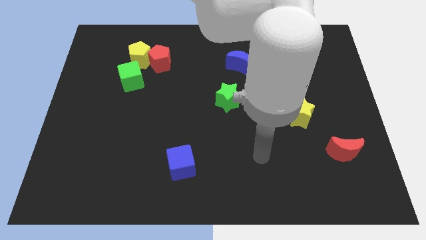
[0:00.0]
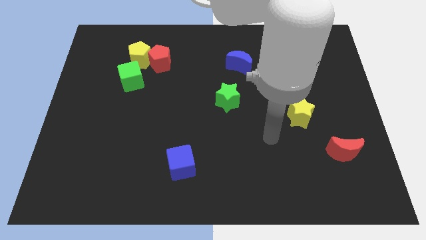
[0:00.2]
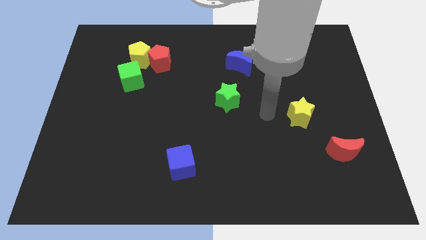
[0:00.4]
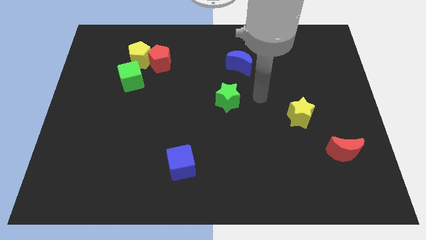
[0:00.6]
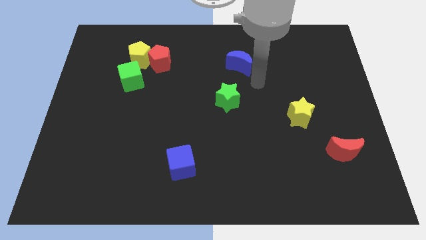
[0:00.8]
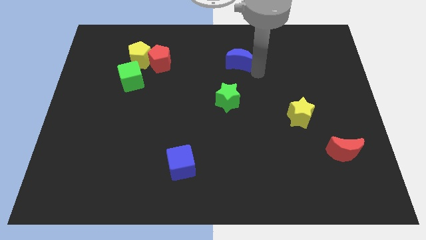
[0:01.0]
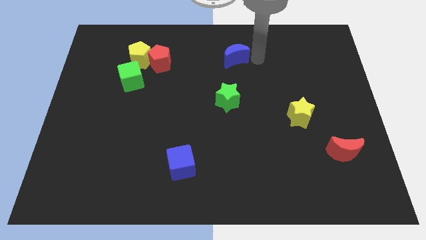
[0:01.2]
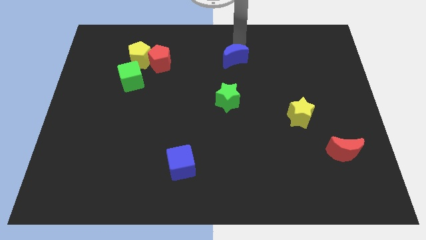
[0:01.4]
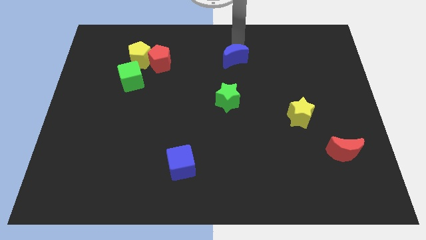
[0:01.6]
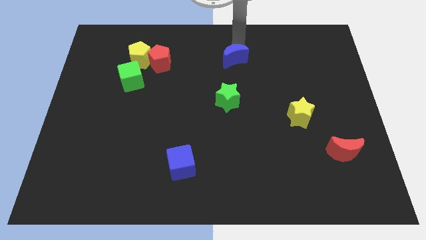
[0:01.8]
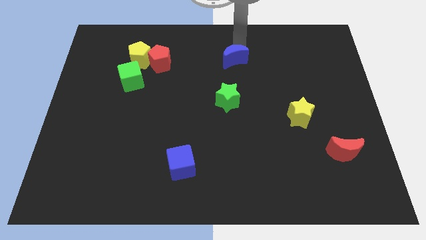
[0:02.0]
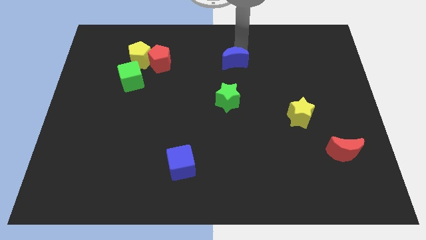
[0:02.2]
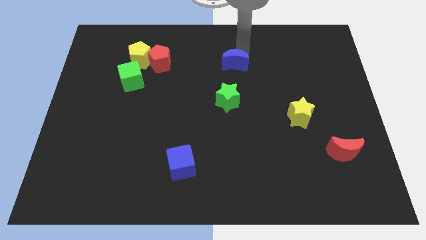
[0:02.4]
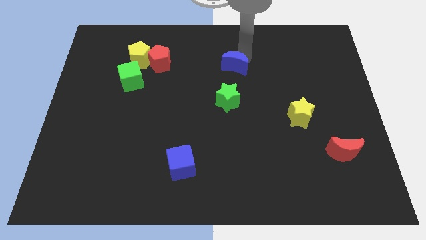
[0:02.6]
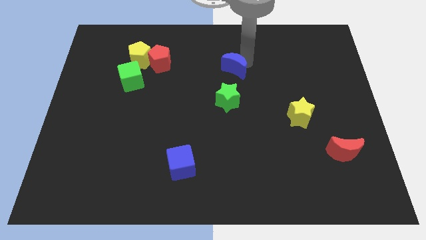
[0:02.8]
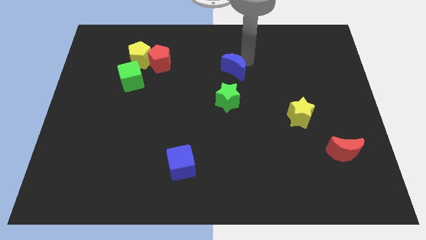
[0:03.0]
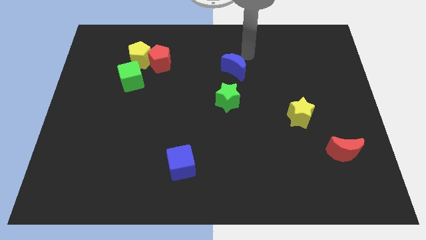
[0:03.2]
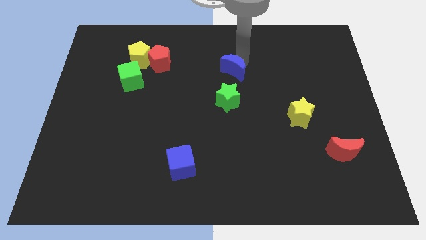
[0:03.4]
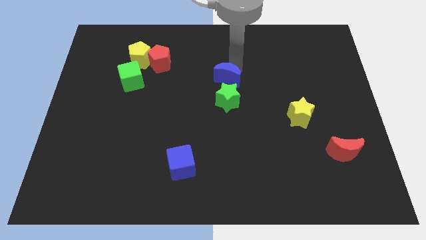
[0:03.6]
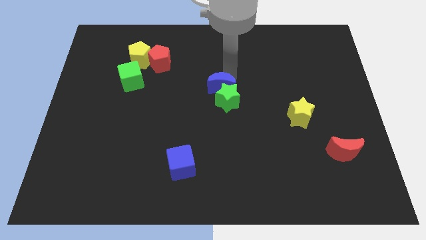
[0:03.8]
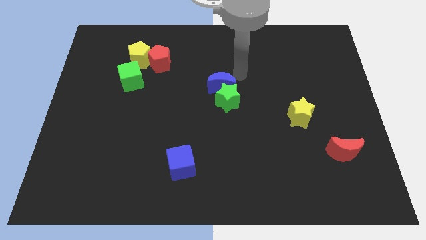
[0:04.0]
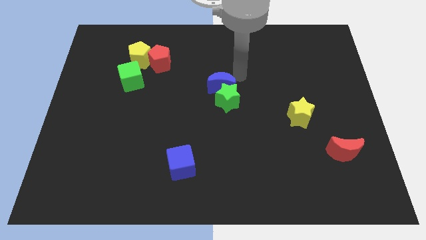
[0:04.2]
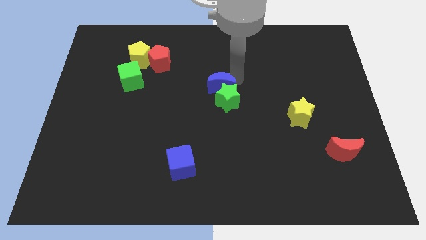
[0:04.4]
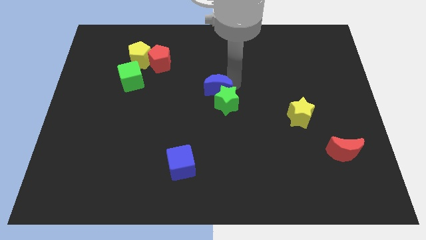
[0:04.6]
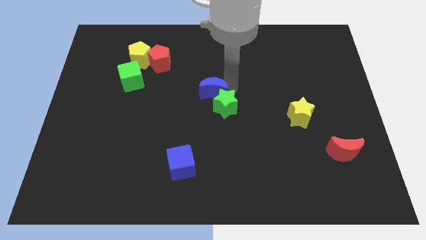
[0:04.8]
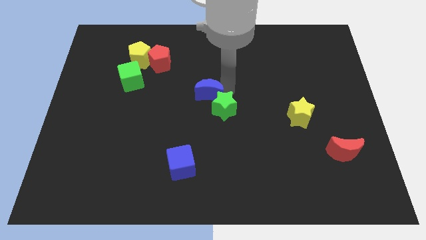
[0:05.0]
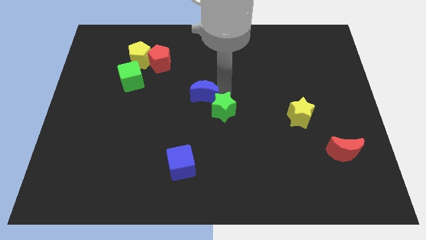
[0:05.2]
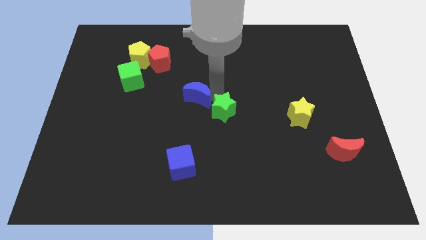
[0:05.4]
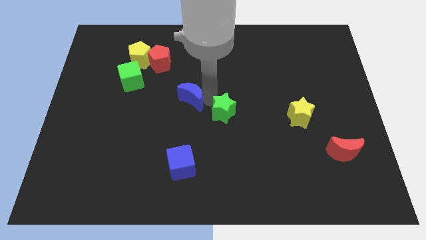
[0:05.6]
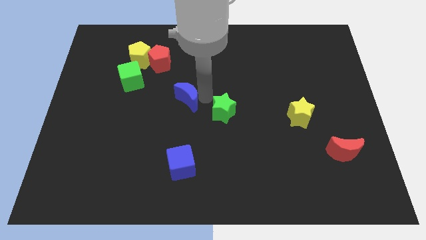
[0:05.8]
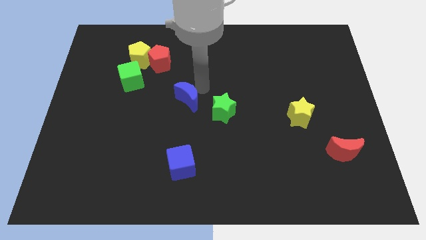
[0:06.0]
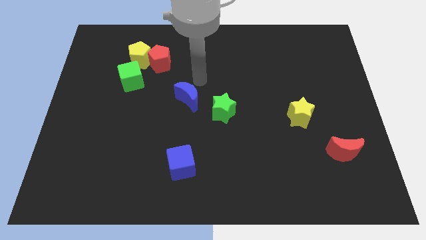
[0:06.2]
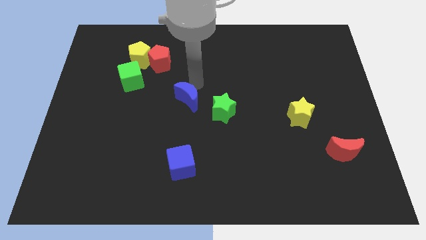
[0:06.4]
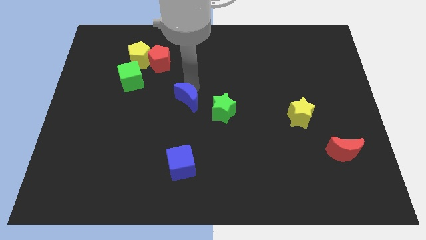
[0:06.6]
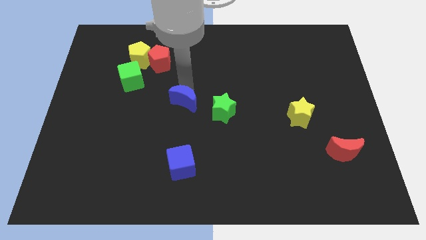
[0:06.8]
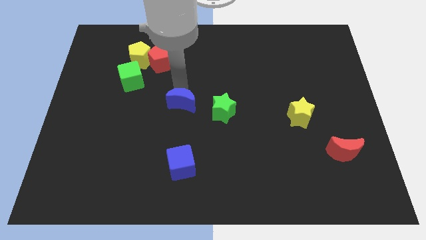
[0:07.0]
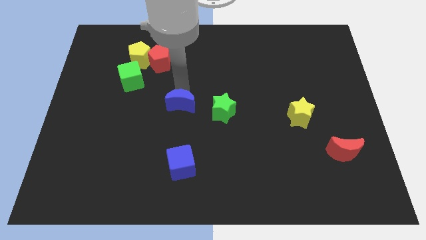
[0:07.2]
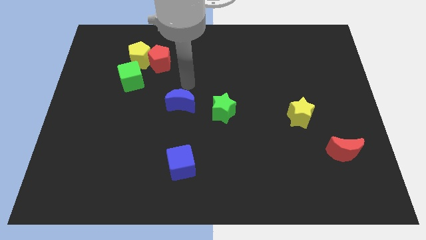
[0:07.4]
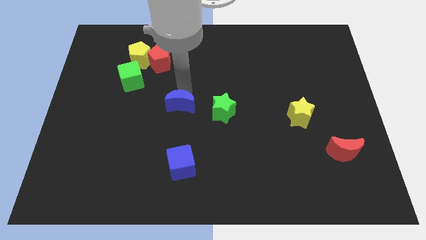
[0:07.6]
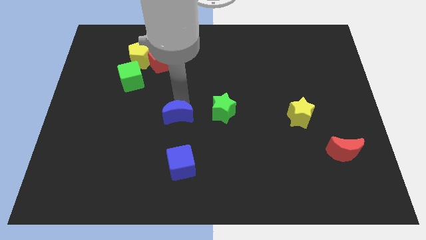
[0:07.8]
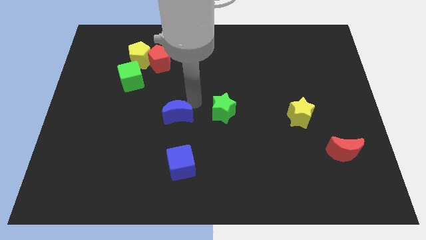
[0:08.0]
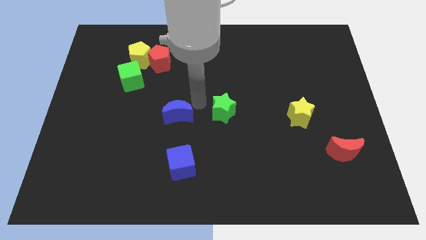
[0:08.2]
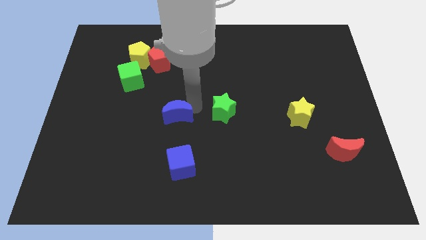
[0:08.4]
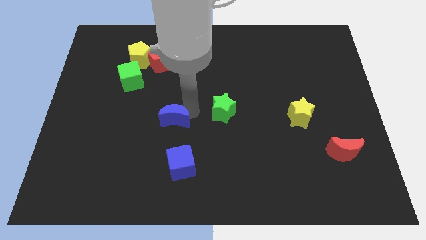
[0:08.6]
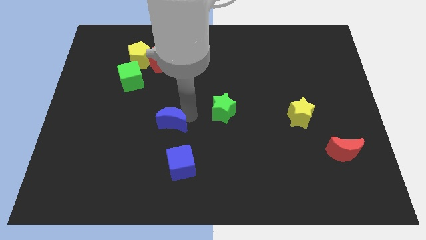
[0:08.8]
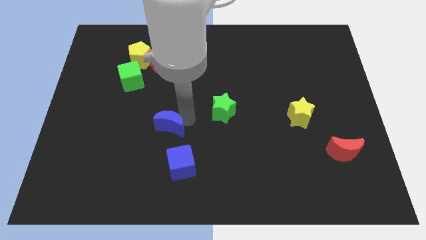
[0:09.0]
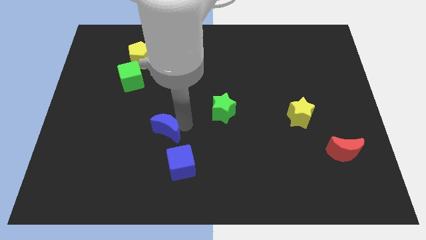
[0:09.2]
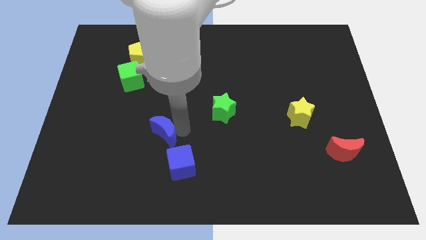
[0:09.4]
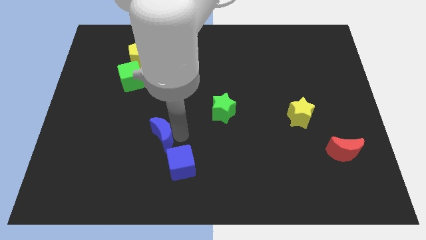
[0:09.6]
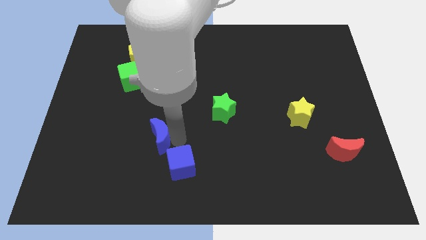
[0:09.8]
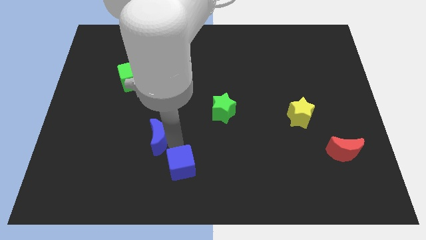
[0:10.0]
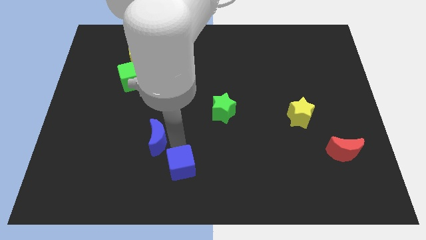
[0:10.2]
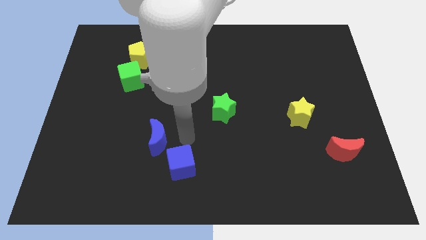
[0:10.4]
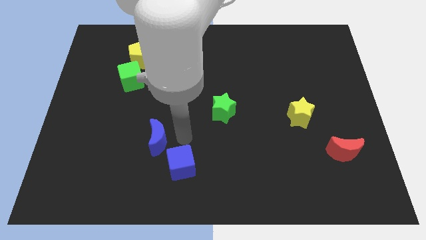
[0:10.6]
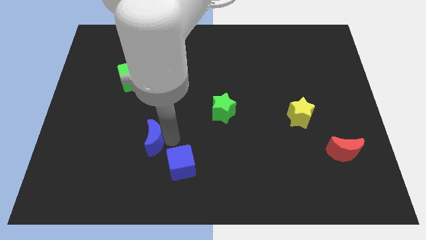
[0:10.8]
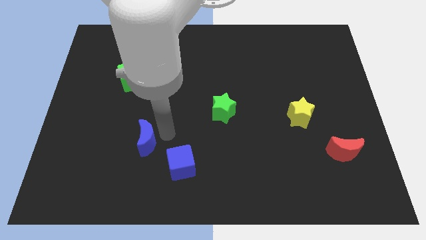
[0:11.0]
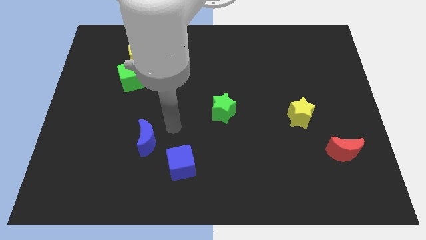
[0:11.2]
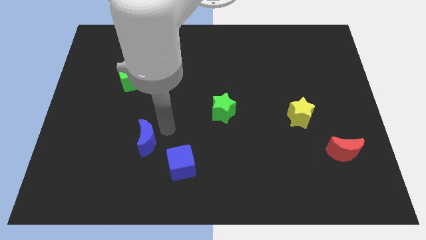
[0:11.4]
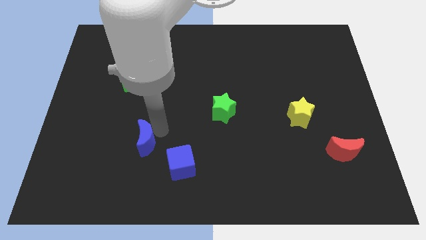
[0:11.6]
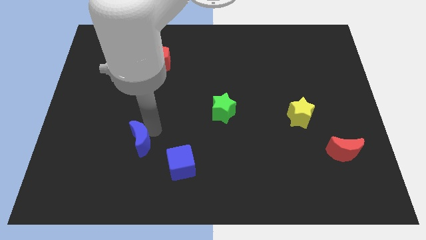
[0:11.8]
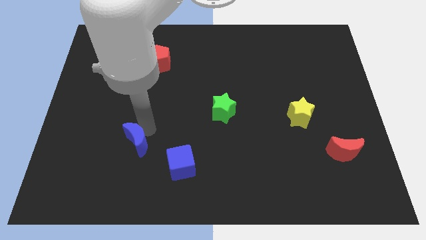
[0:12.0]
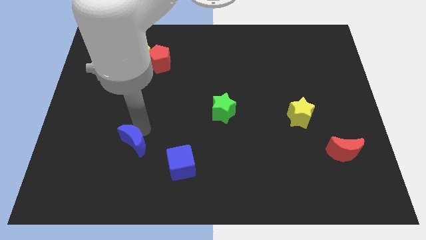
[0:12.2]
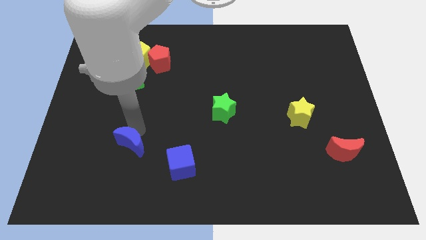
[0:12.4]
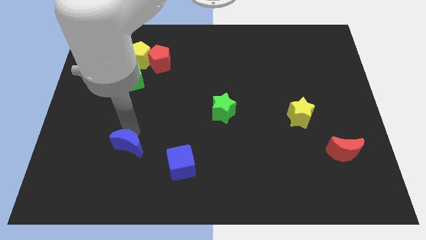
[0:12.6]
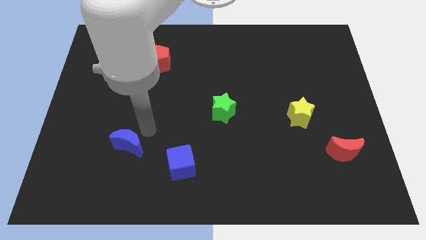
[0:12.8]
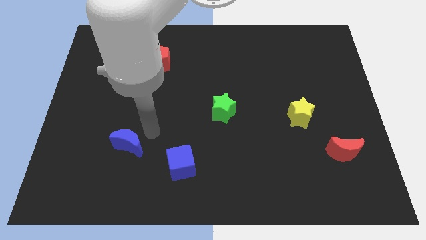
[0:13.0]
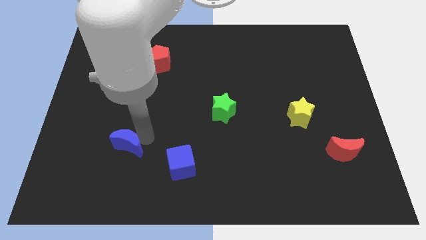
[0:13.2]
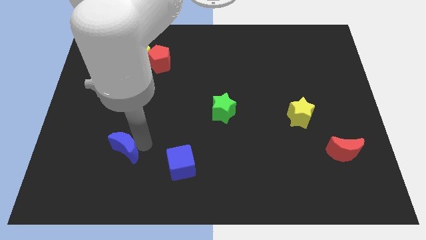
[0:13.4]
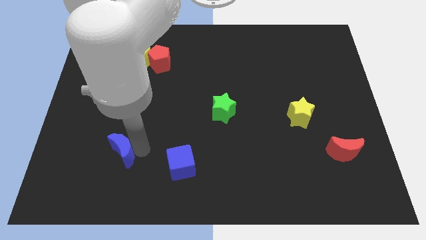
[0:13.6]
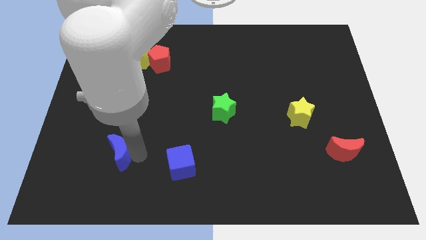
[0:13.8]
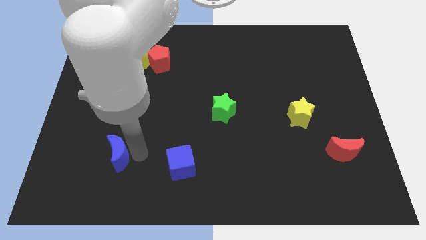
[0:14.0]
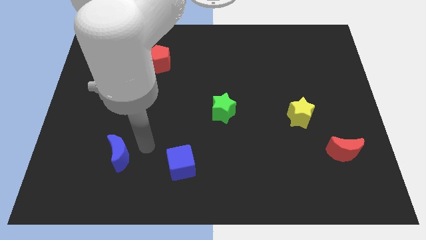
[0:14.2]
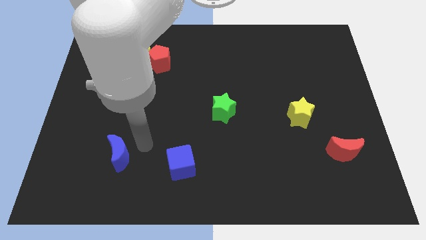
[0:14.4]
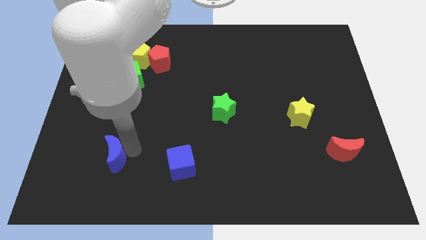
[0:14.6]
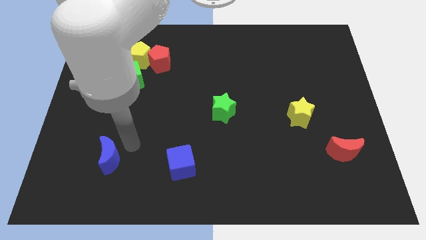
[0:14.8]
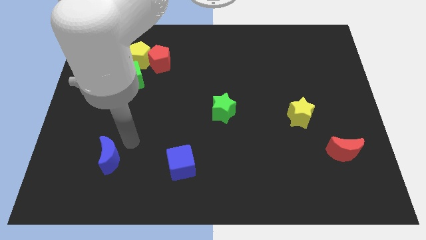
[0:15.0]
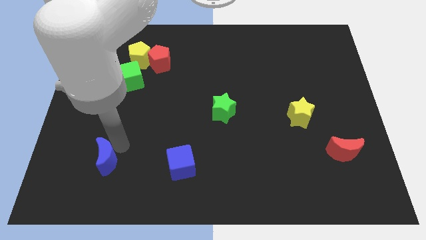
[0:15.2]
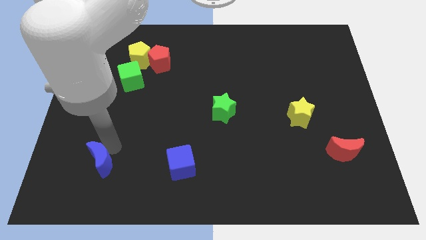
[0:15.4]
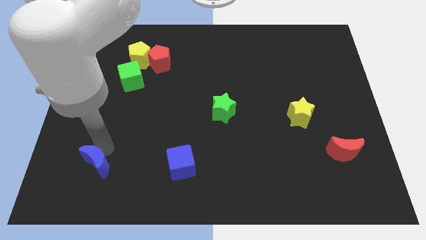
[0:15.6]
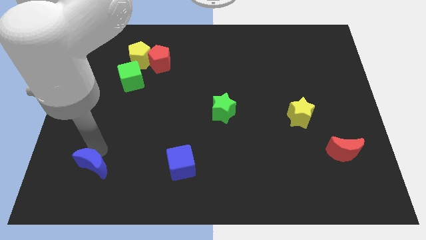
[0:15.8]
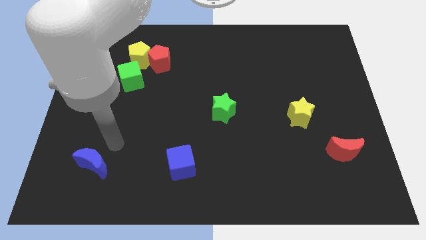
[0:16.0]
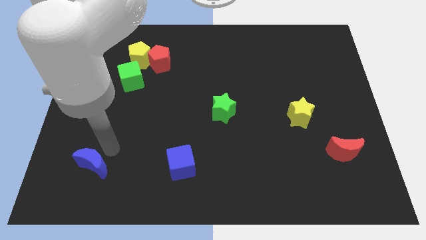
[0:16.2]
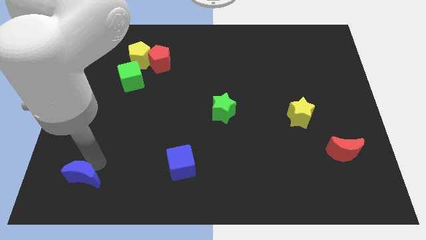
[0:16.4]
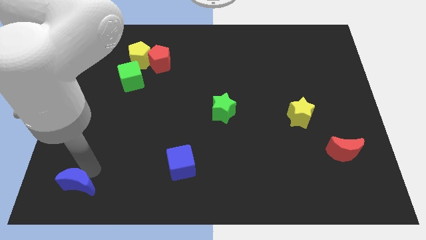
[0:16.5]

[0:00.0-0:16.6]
move the blue moon to the bottom left
